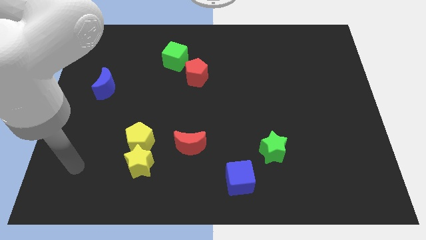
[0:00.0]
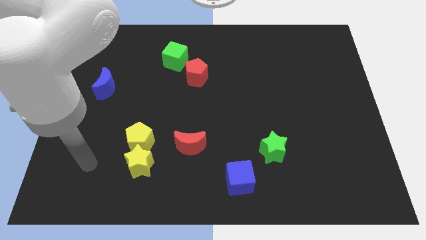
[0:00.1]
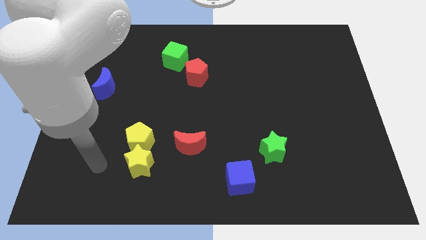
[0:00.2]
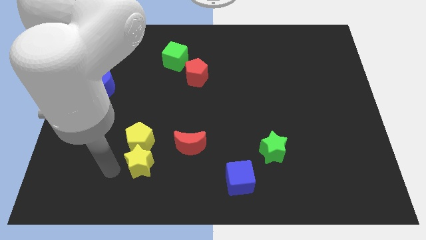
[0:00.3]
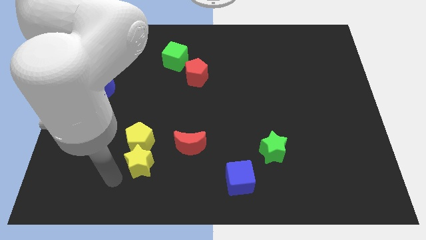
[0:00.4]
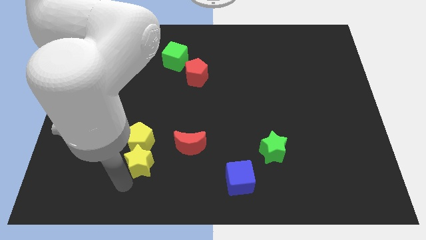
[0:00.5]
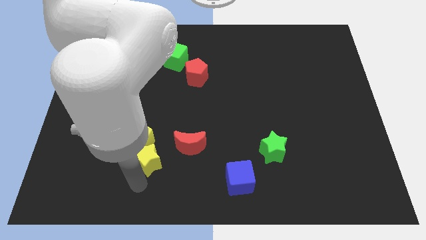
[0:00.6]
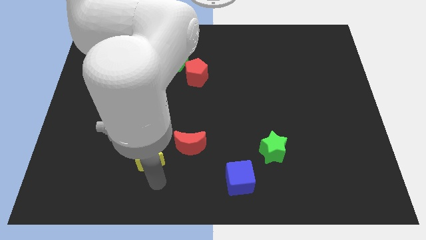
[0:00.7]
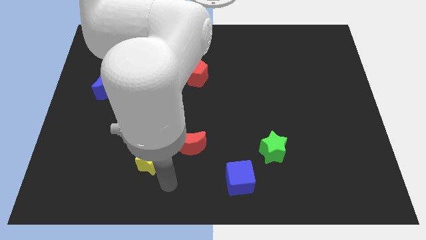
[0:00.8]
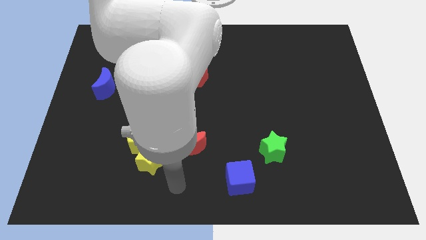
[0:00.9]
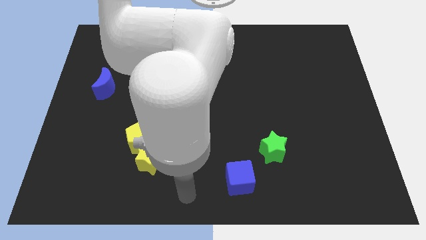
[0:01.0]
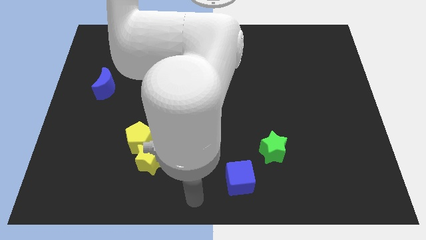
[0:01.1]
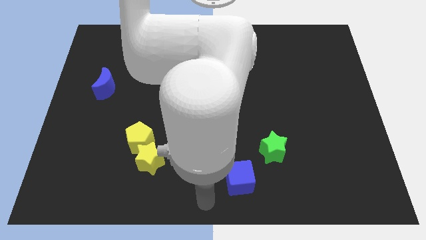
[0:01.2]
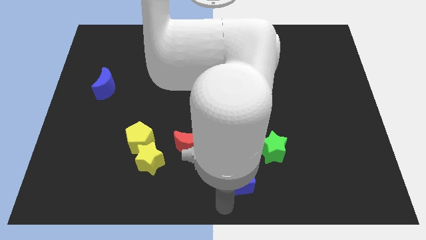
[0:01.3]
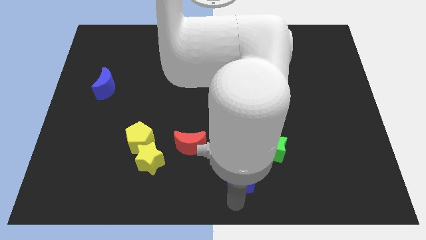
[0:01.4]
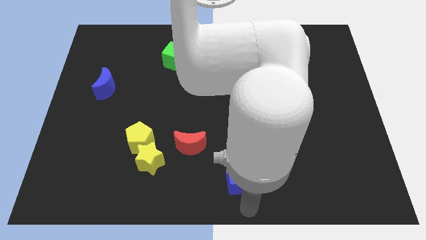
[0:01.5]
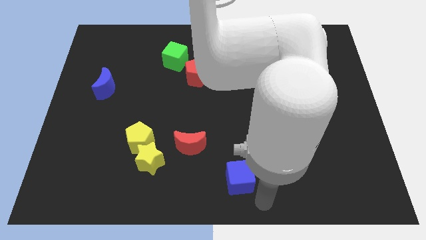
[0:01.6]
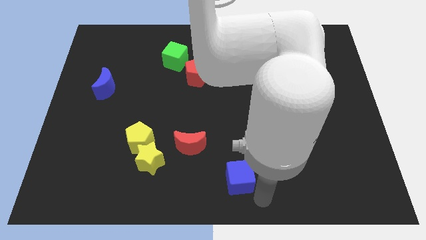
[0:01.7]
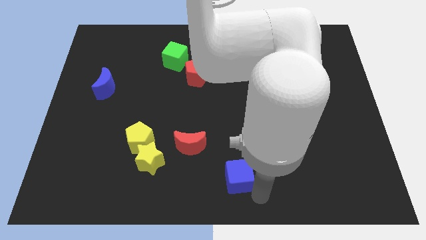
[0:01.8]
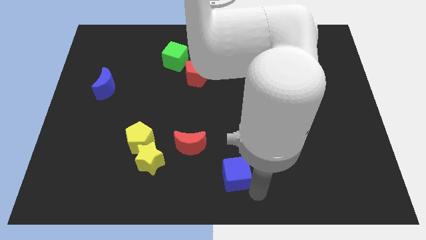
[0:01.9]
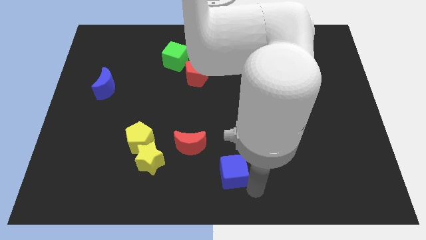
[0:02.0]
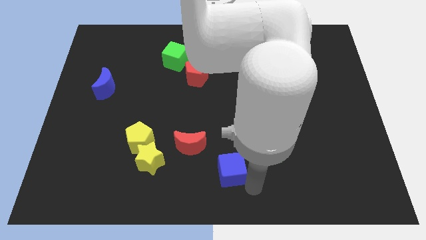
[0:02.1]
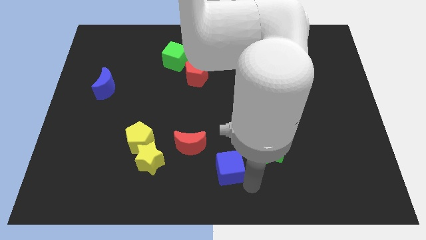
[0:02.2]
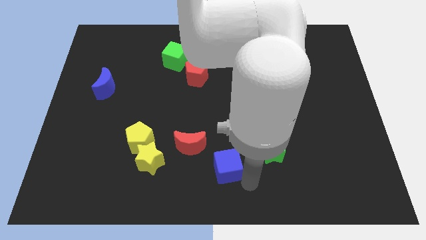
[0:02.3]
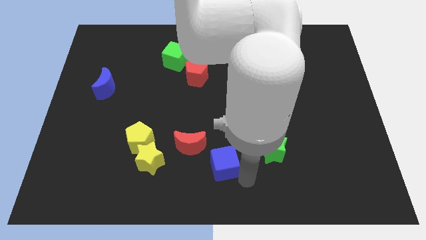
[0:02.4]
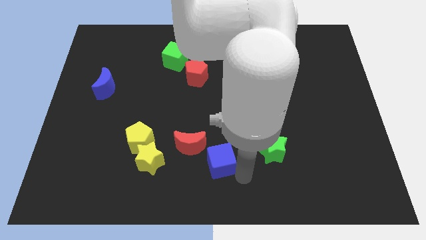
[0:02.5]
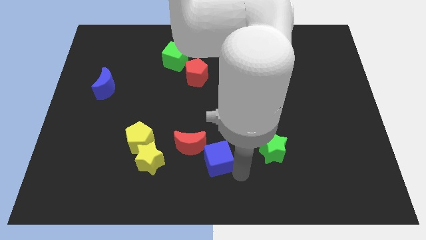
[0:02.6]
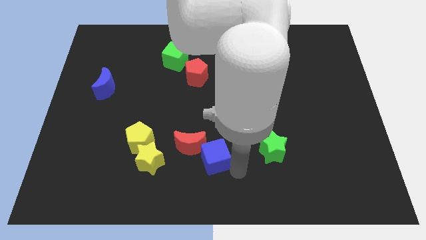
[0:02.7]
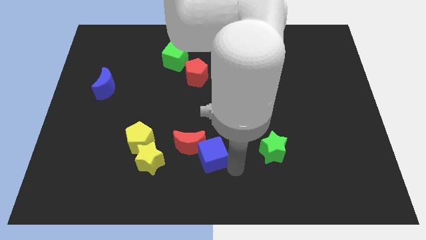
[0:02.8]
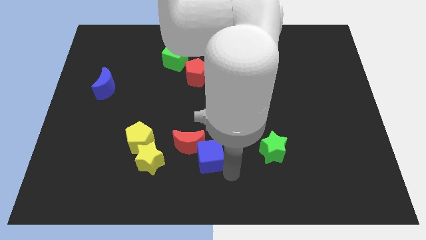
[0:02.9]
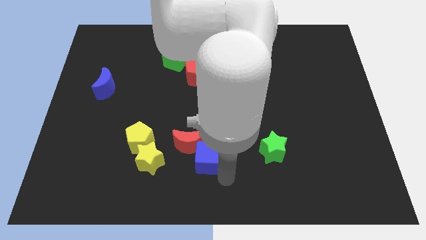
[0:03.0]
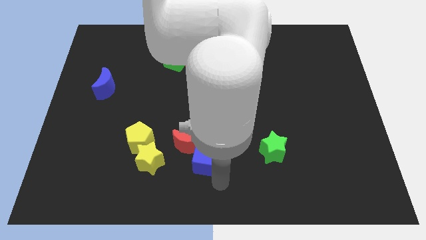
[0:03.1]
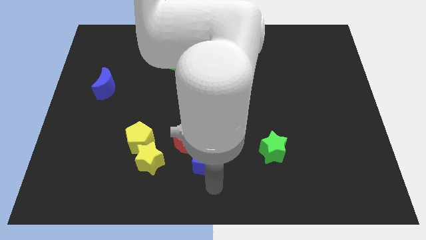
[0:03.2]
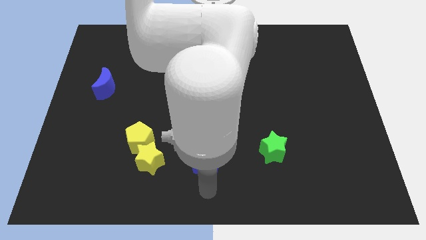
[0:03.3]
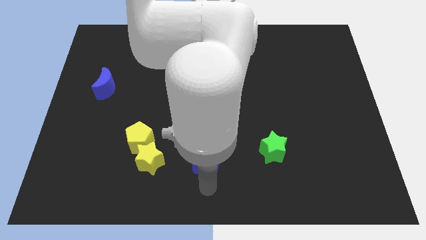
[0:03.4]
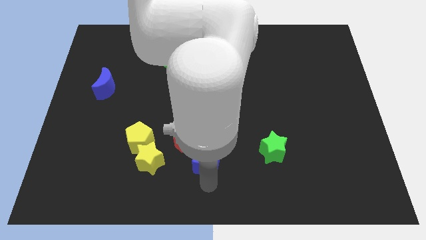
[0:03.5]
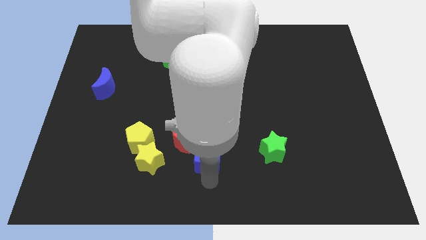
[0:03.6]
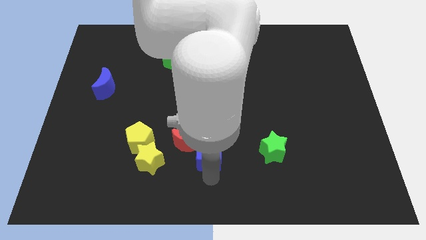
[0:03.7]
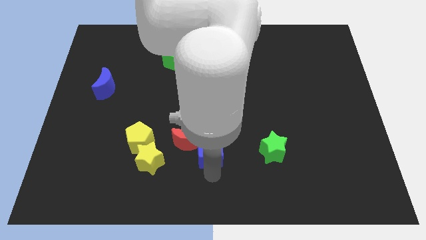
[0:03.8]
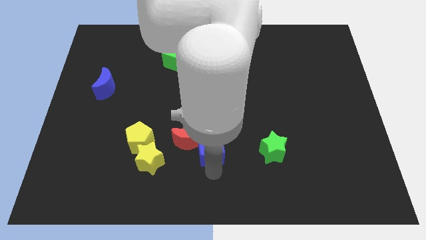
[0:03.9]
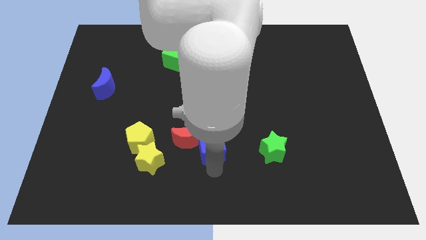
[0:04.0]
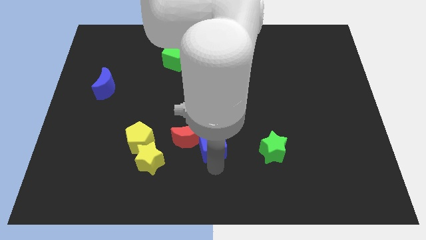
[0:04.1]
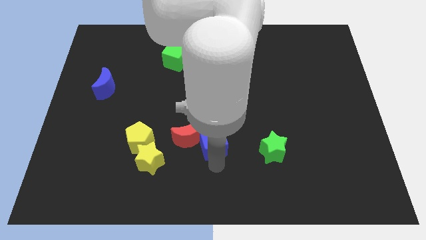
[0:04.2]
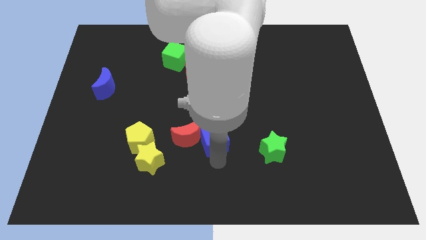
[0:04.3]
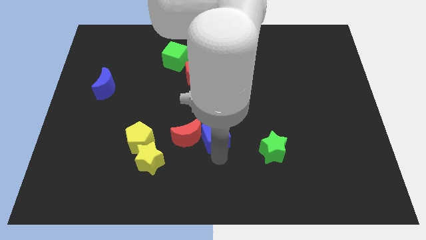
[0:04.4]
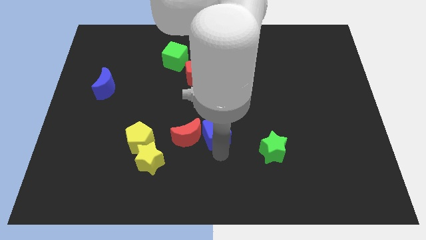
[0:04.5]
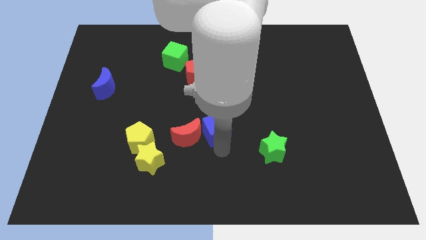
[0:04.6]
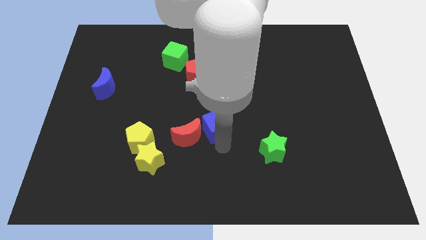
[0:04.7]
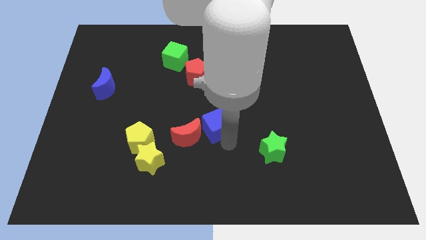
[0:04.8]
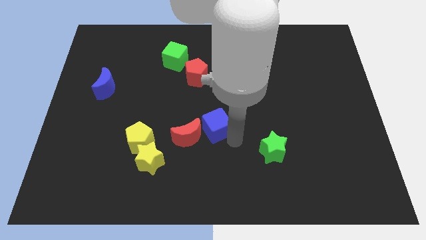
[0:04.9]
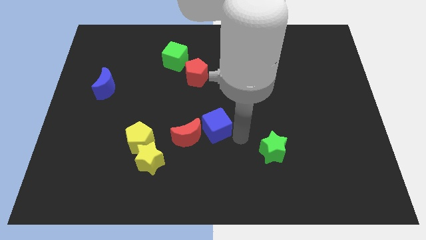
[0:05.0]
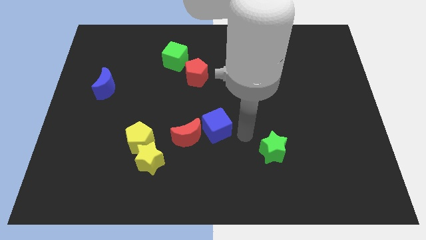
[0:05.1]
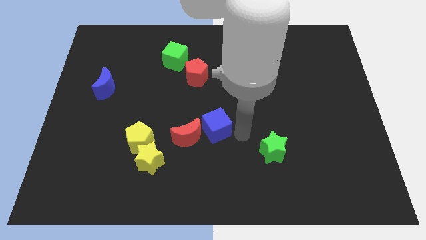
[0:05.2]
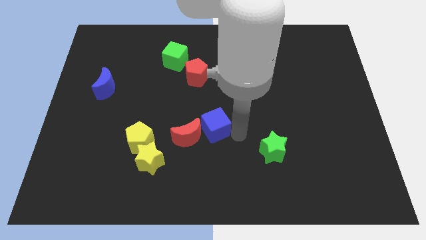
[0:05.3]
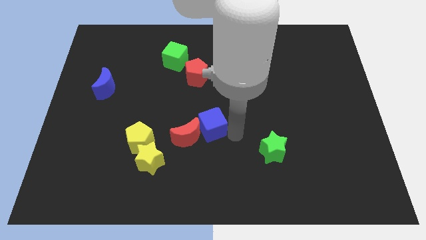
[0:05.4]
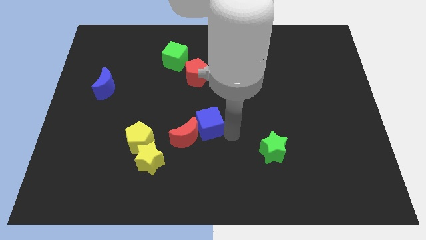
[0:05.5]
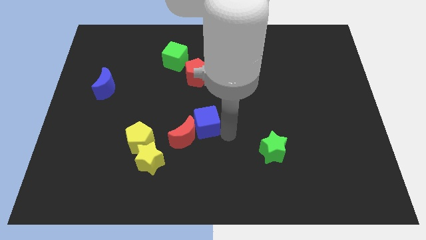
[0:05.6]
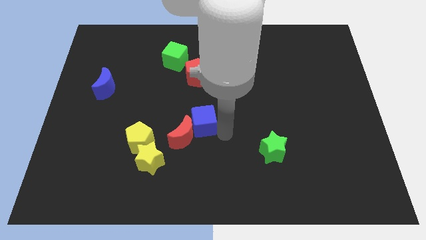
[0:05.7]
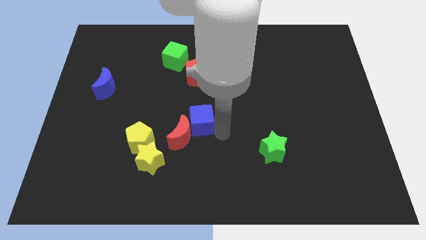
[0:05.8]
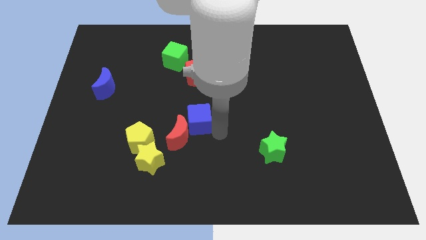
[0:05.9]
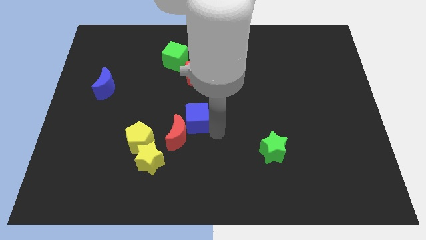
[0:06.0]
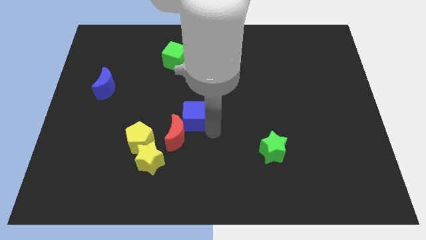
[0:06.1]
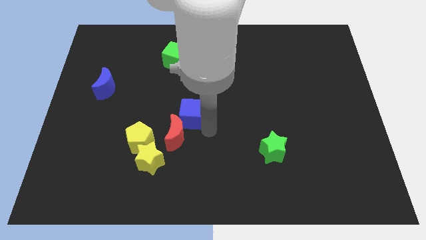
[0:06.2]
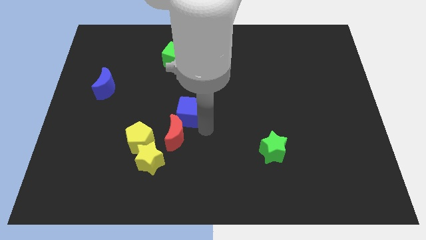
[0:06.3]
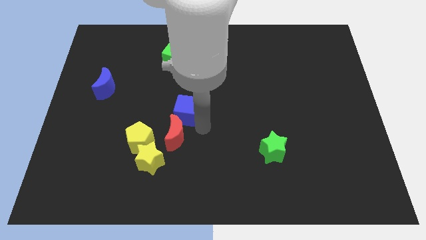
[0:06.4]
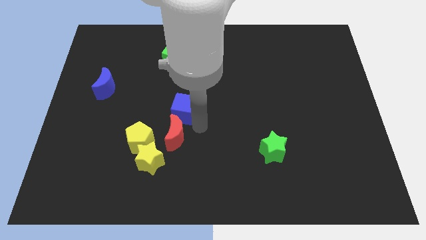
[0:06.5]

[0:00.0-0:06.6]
push the blue cube upwards and to the left

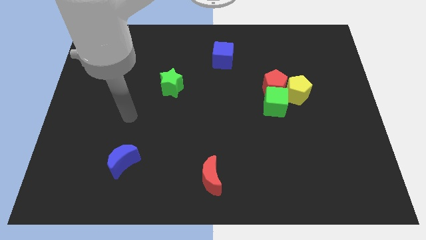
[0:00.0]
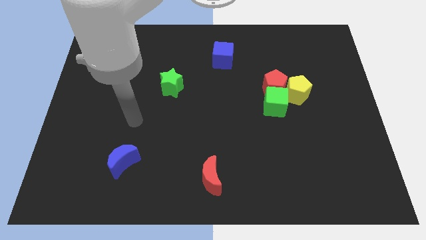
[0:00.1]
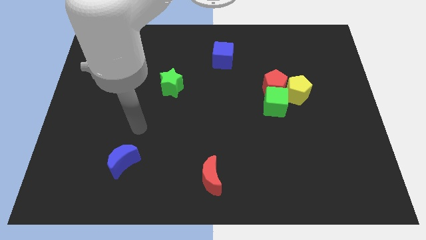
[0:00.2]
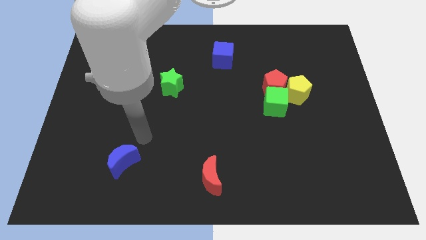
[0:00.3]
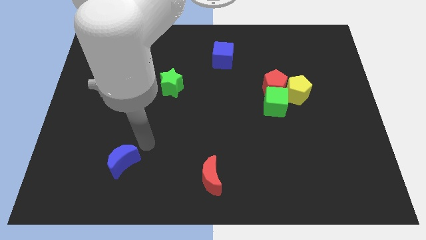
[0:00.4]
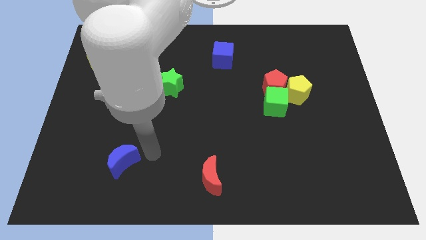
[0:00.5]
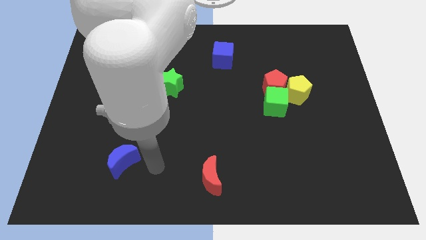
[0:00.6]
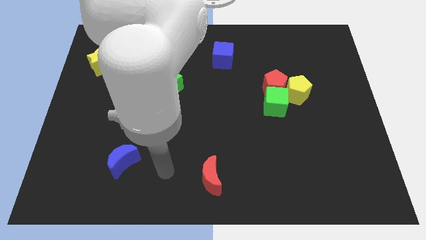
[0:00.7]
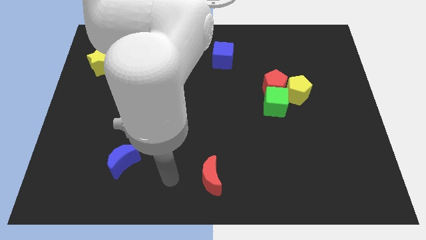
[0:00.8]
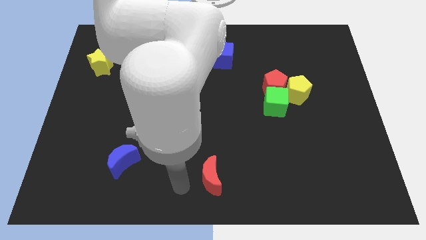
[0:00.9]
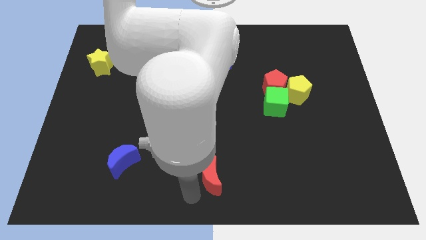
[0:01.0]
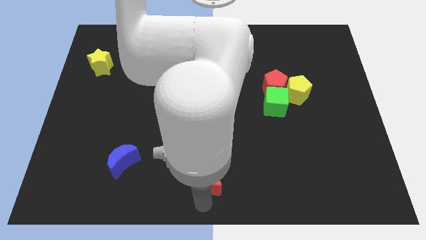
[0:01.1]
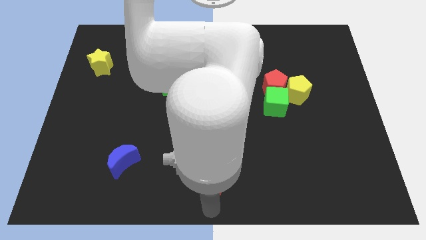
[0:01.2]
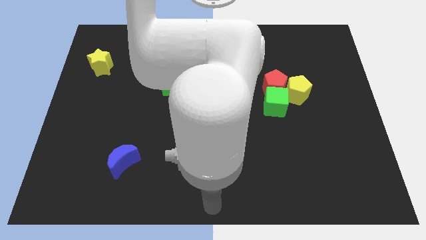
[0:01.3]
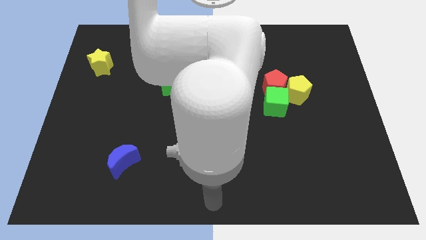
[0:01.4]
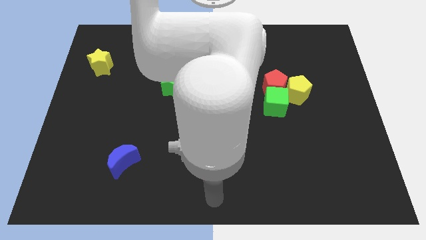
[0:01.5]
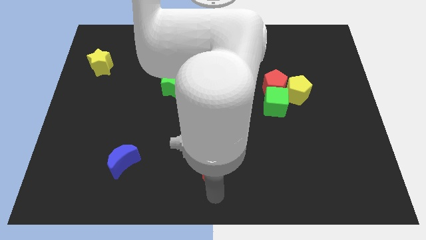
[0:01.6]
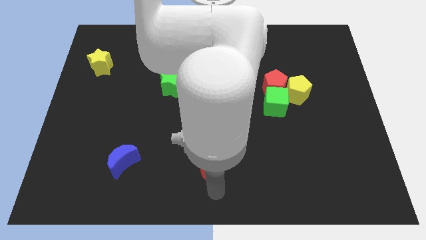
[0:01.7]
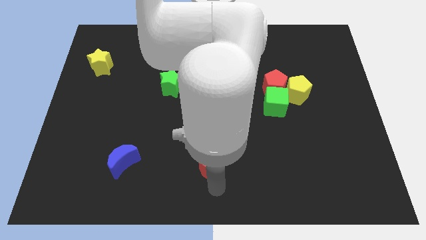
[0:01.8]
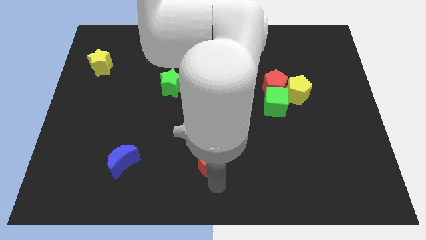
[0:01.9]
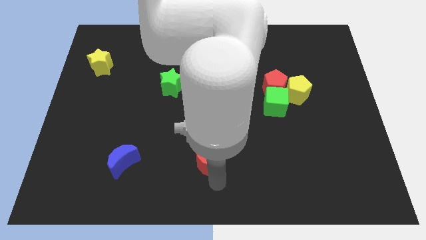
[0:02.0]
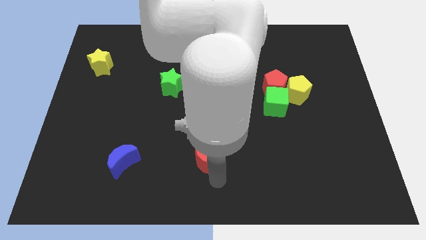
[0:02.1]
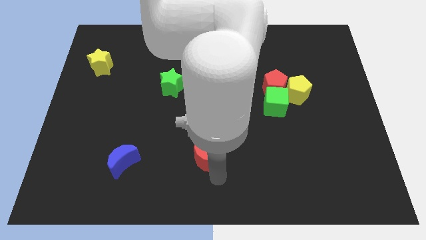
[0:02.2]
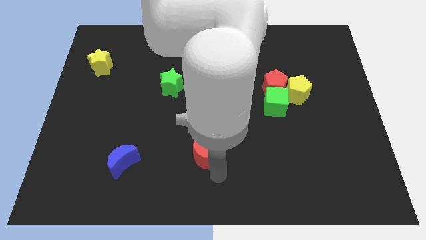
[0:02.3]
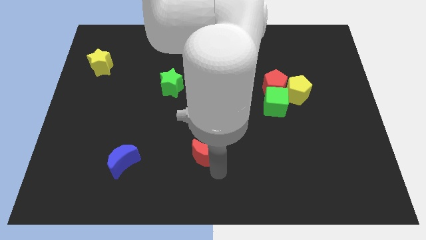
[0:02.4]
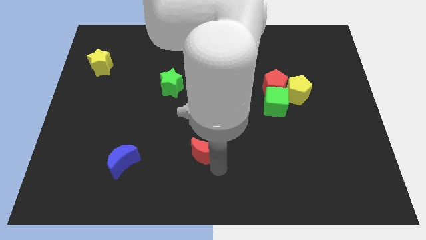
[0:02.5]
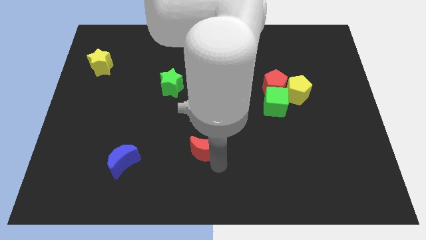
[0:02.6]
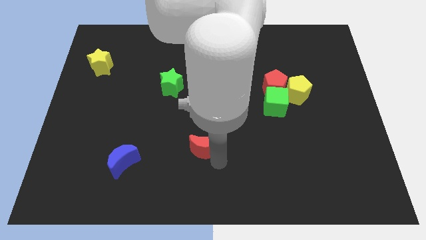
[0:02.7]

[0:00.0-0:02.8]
push the red moon a little bit up
